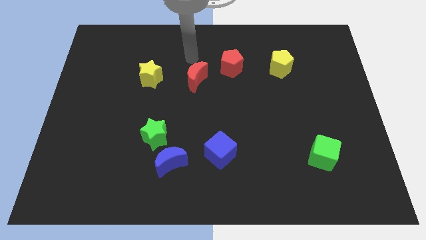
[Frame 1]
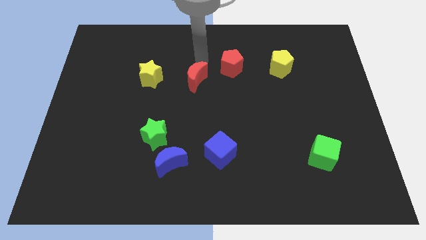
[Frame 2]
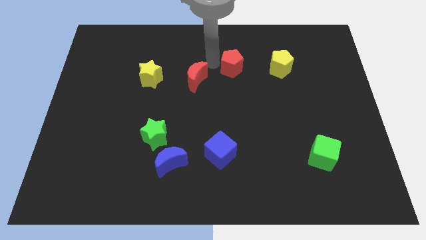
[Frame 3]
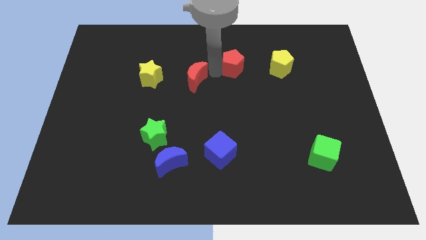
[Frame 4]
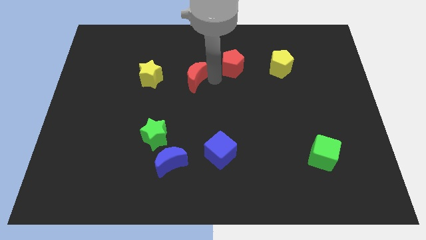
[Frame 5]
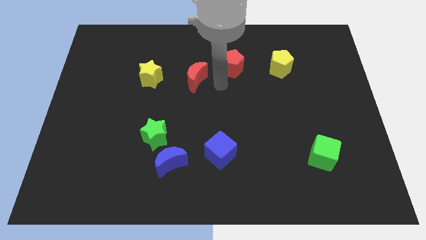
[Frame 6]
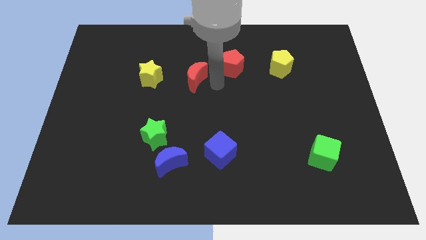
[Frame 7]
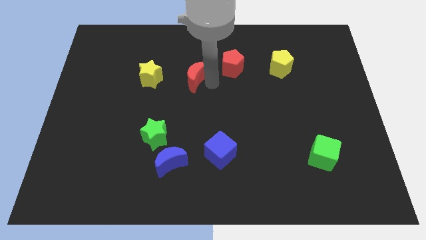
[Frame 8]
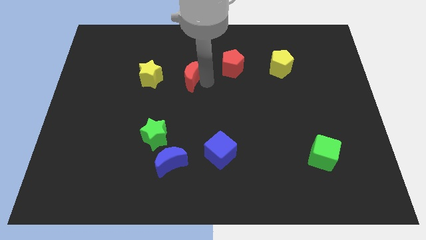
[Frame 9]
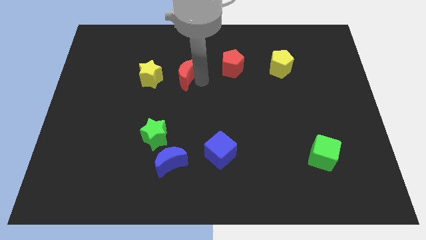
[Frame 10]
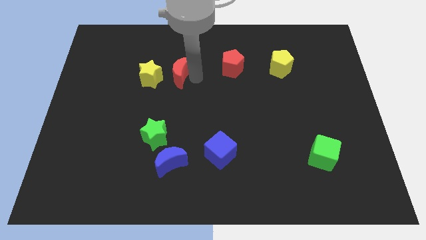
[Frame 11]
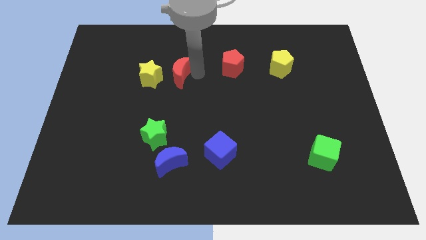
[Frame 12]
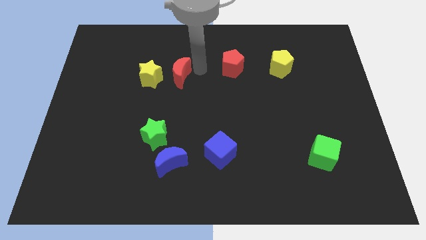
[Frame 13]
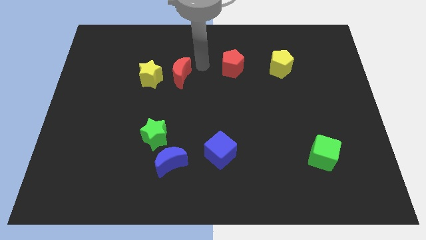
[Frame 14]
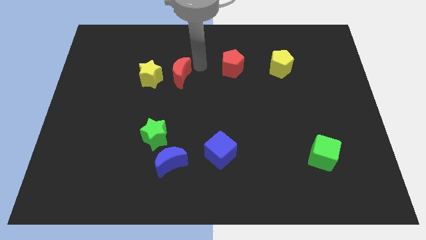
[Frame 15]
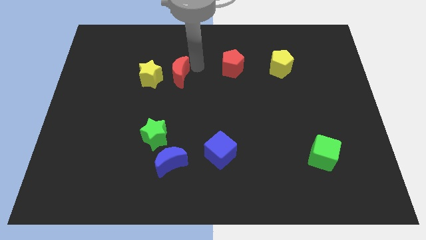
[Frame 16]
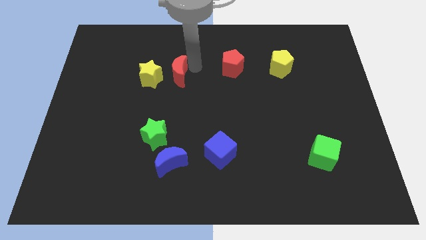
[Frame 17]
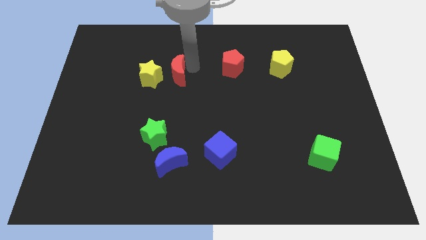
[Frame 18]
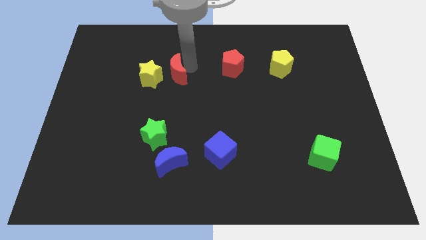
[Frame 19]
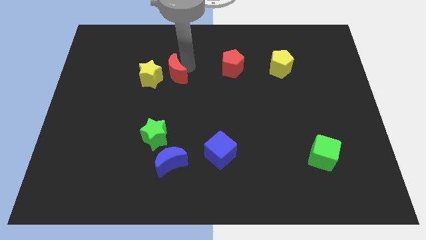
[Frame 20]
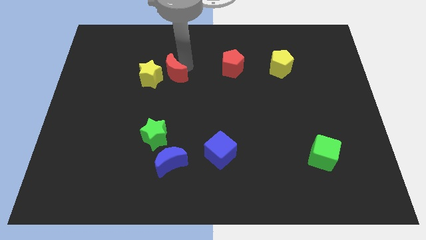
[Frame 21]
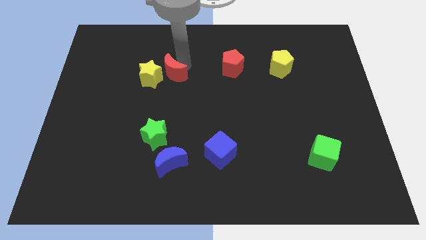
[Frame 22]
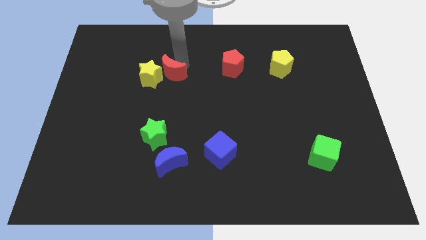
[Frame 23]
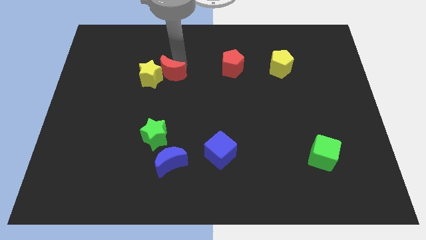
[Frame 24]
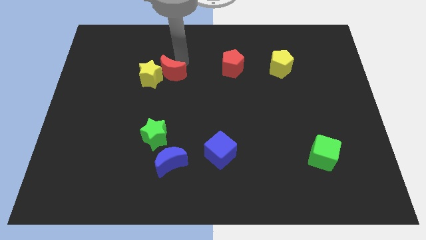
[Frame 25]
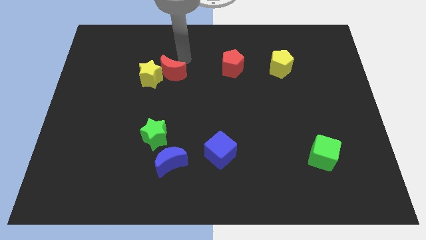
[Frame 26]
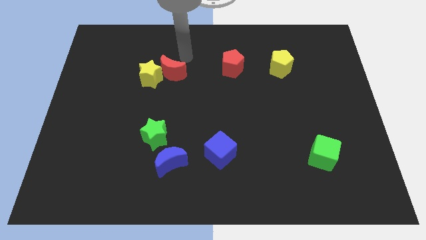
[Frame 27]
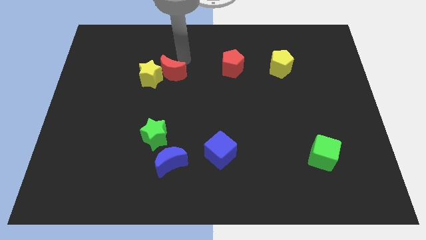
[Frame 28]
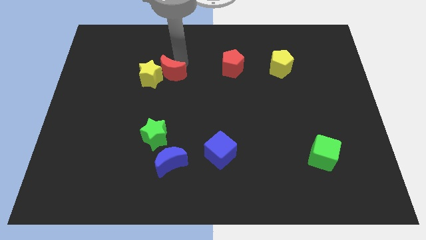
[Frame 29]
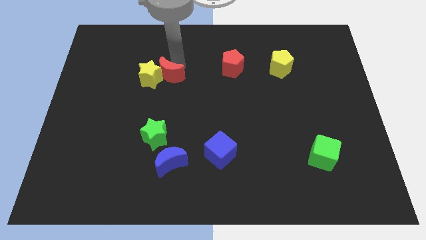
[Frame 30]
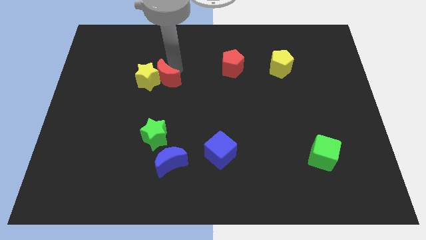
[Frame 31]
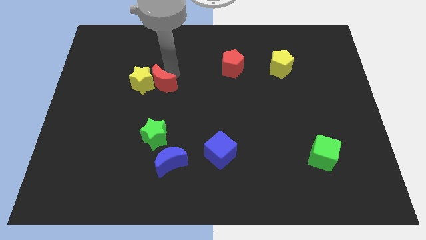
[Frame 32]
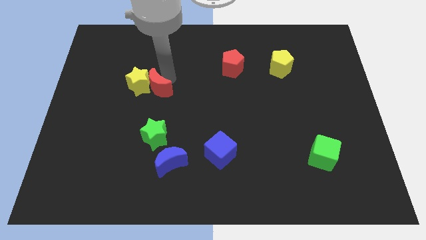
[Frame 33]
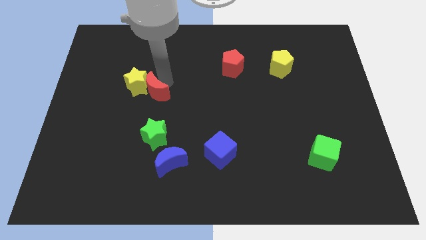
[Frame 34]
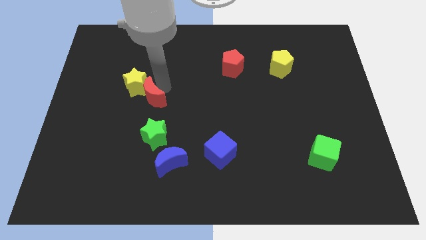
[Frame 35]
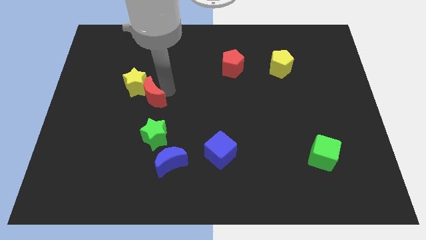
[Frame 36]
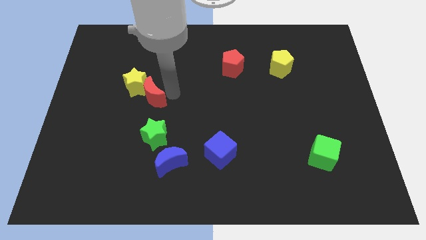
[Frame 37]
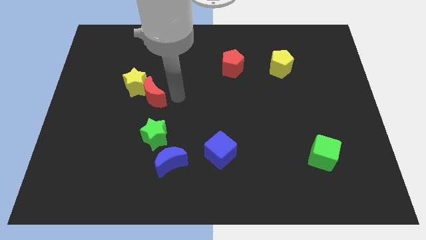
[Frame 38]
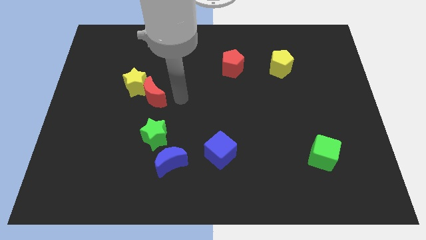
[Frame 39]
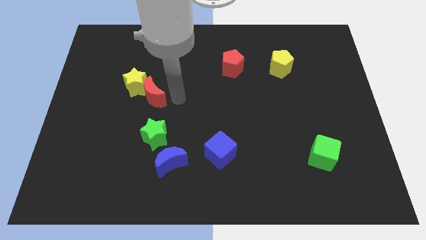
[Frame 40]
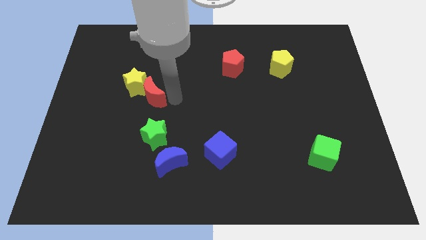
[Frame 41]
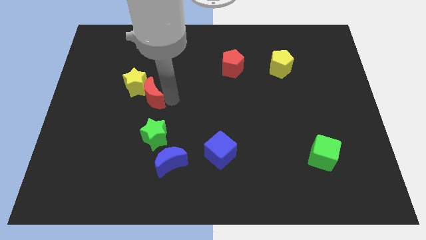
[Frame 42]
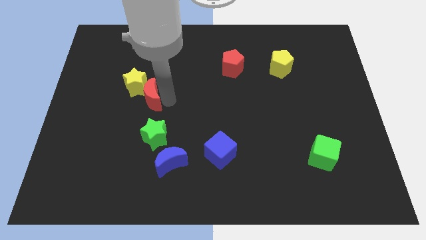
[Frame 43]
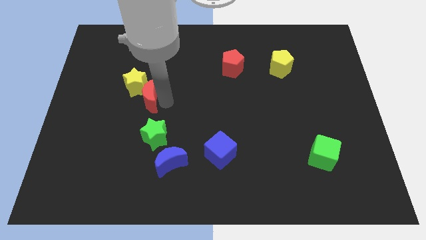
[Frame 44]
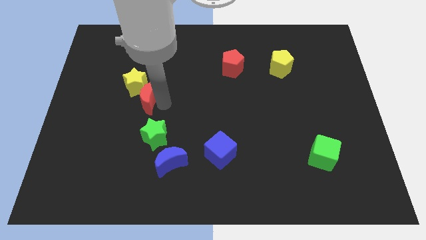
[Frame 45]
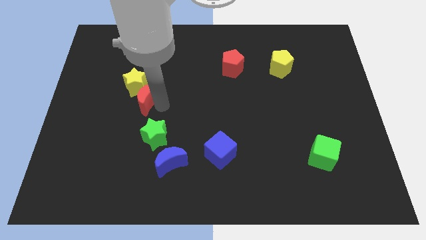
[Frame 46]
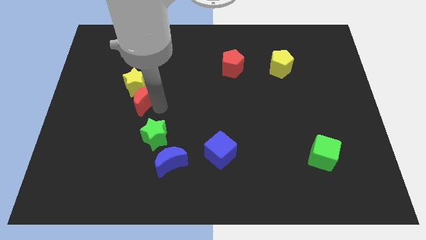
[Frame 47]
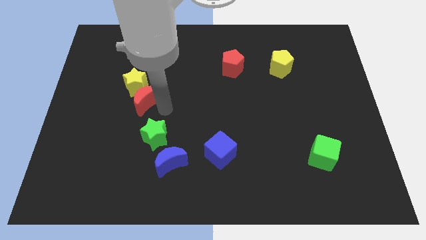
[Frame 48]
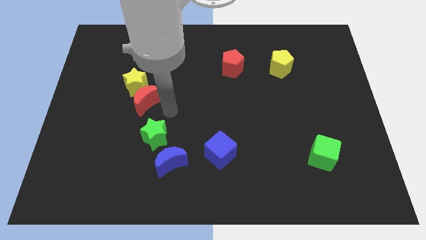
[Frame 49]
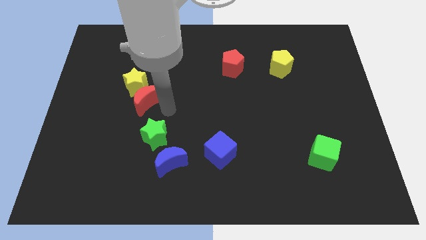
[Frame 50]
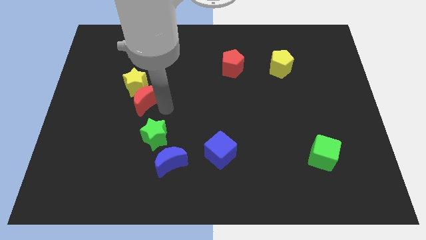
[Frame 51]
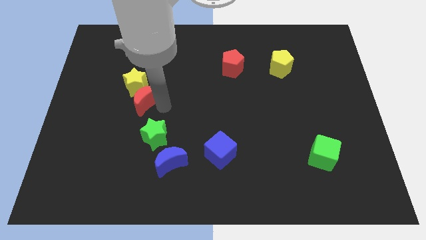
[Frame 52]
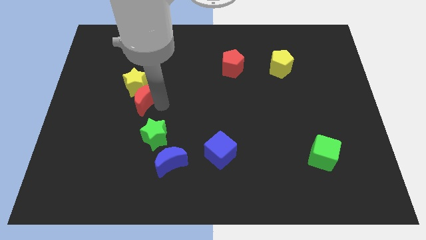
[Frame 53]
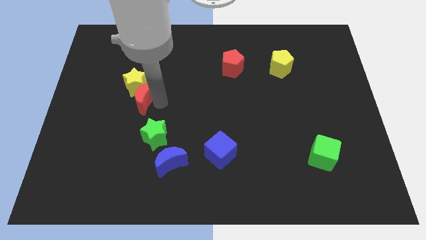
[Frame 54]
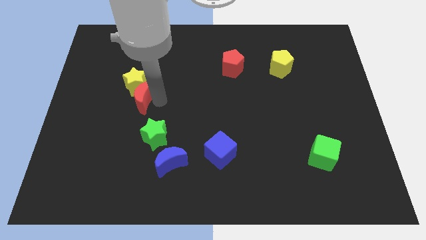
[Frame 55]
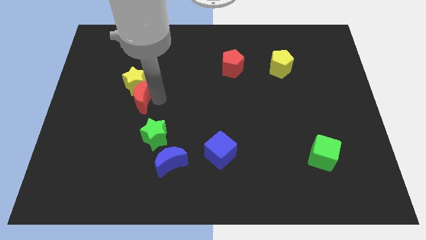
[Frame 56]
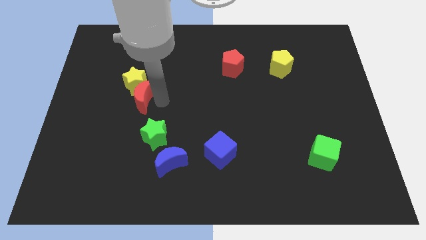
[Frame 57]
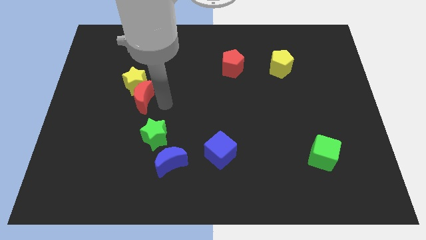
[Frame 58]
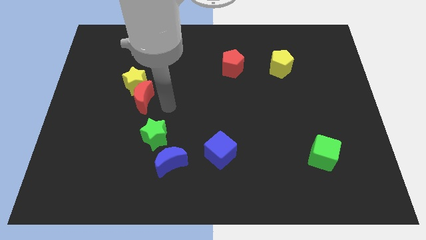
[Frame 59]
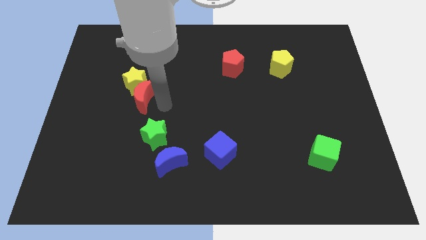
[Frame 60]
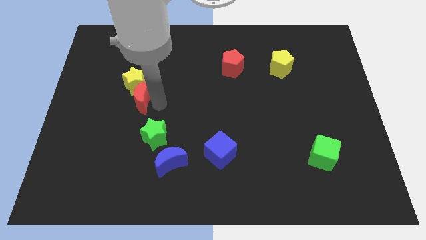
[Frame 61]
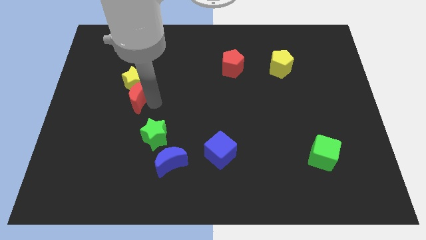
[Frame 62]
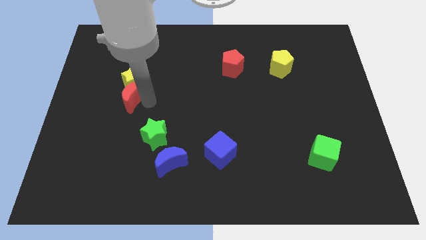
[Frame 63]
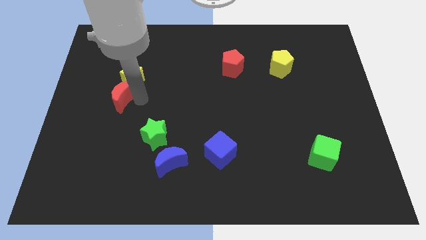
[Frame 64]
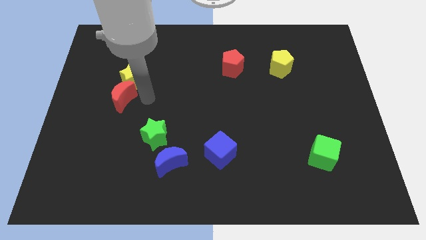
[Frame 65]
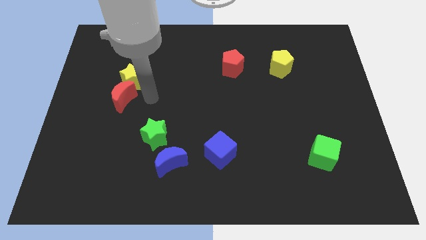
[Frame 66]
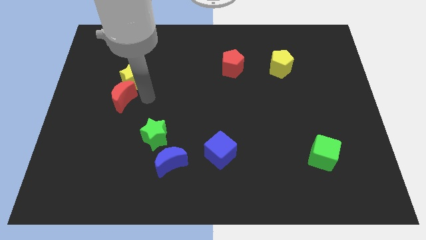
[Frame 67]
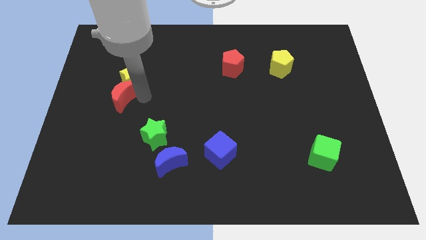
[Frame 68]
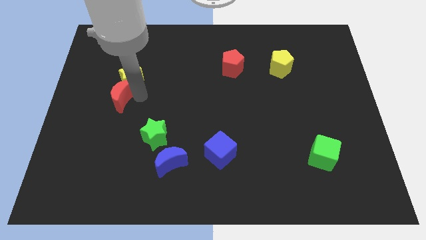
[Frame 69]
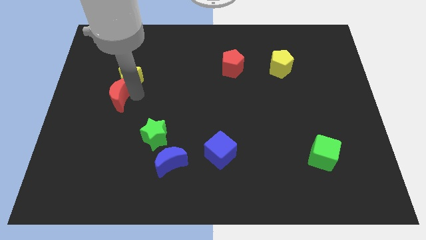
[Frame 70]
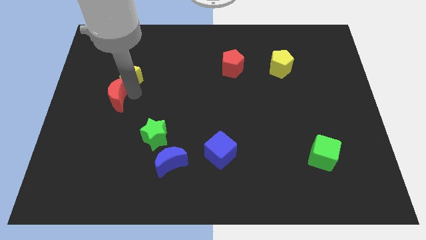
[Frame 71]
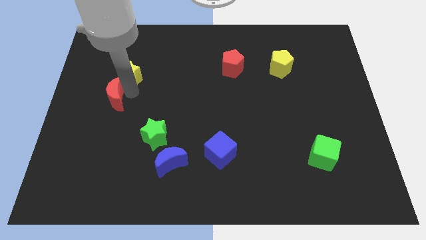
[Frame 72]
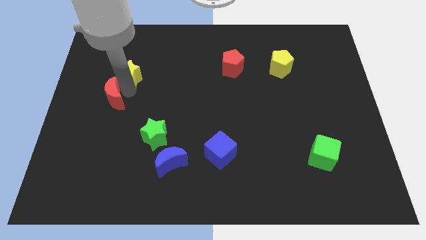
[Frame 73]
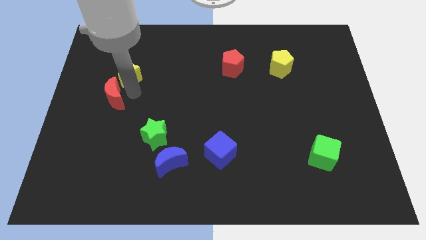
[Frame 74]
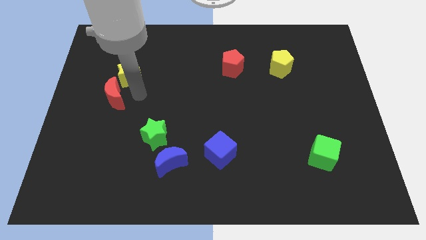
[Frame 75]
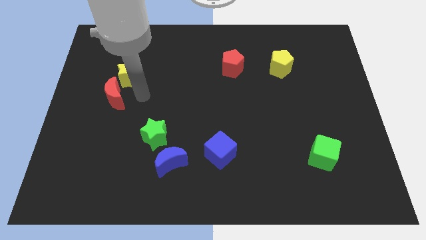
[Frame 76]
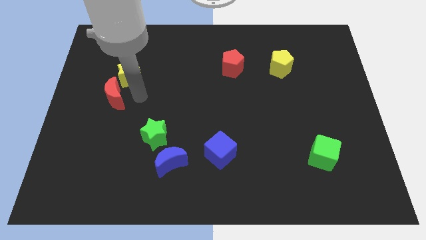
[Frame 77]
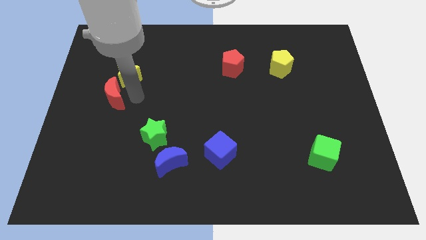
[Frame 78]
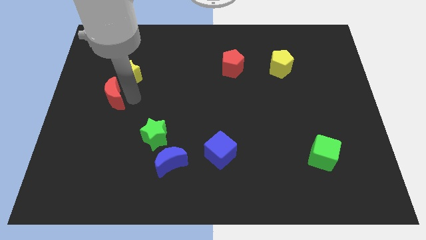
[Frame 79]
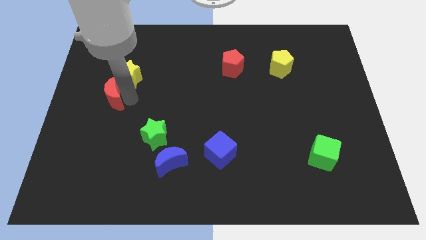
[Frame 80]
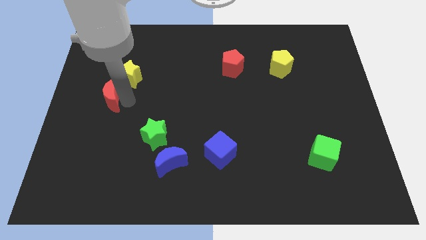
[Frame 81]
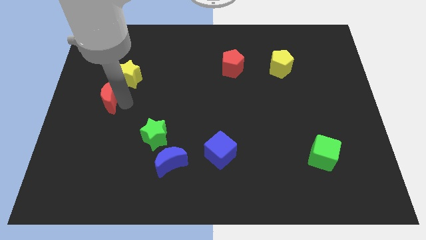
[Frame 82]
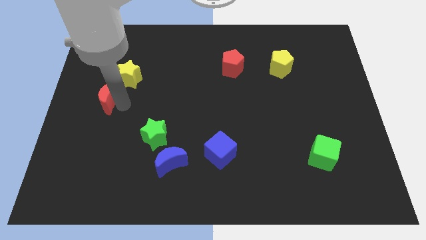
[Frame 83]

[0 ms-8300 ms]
slide the red moon to the left side of the board
